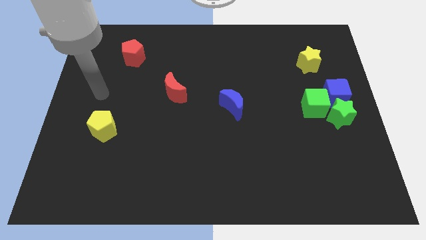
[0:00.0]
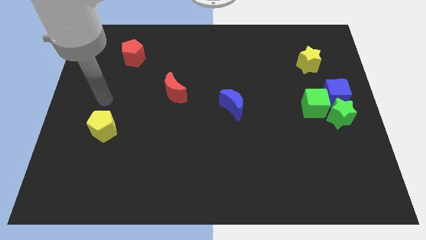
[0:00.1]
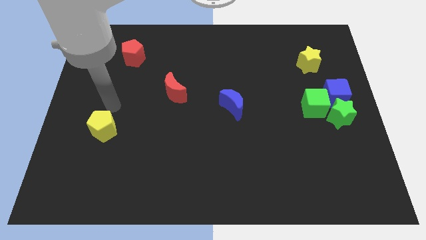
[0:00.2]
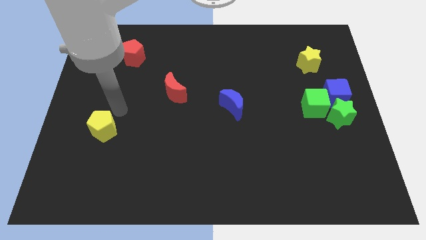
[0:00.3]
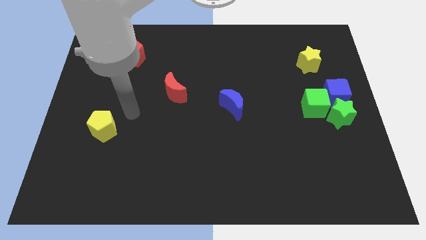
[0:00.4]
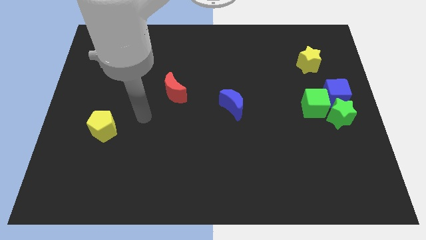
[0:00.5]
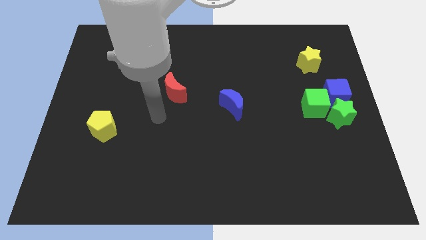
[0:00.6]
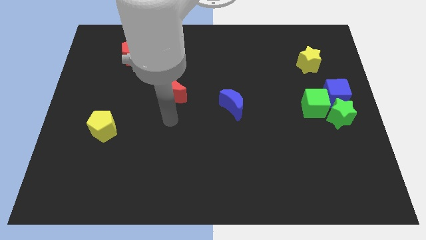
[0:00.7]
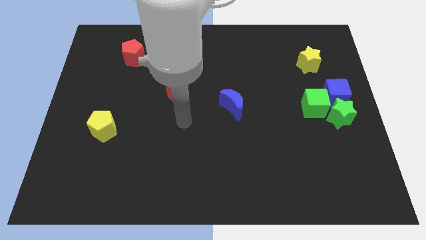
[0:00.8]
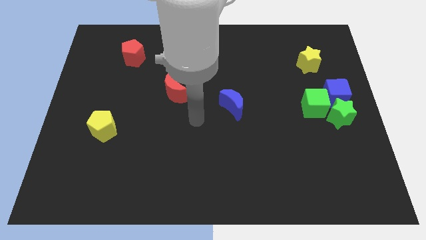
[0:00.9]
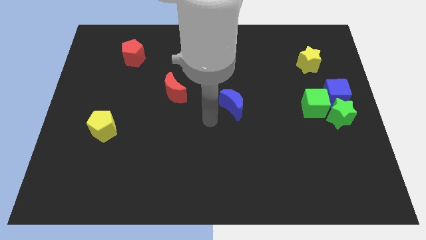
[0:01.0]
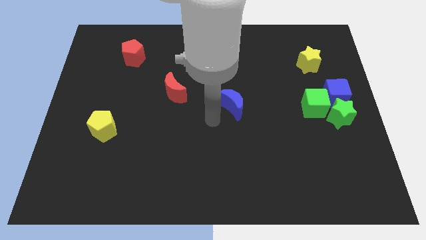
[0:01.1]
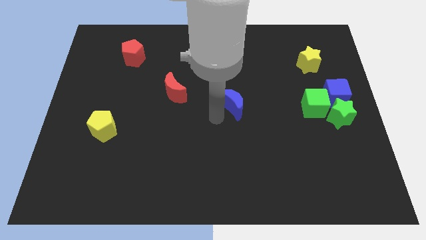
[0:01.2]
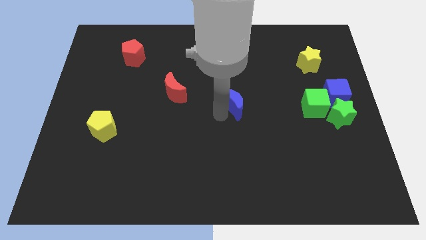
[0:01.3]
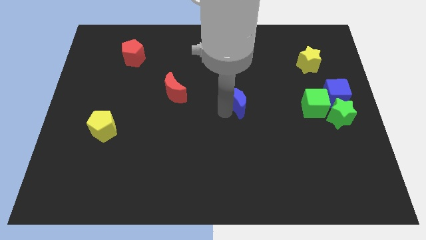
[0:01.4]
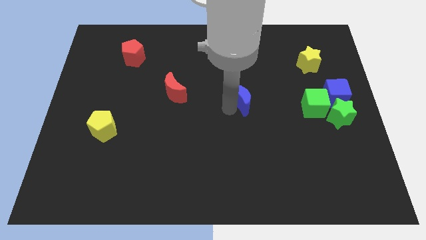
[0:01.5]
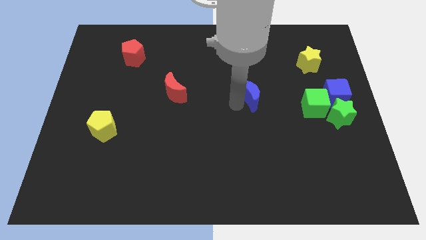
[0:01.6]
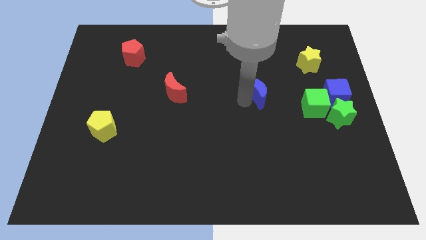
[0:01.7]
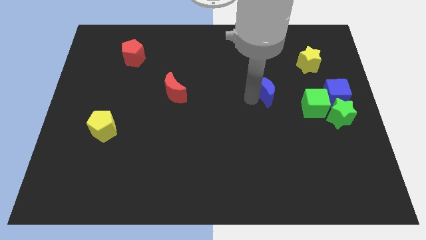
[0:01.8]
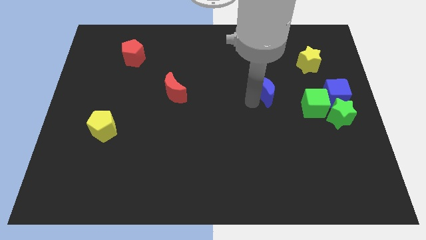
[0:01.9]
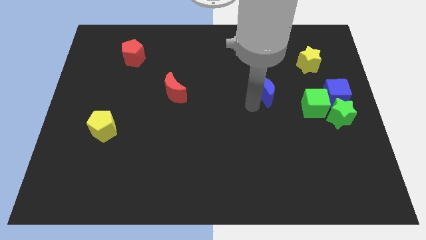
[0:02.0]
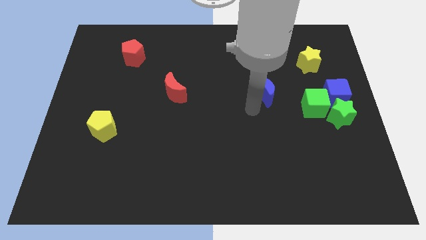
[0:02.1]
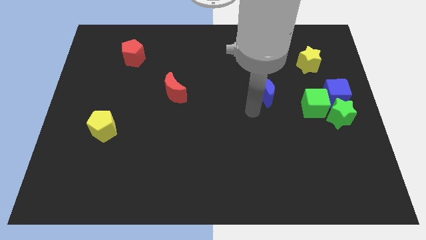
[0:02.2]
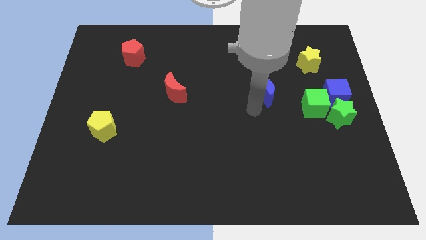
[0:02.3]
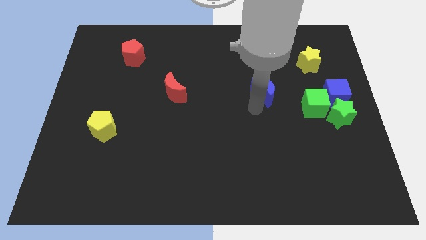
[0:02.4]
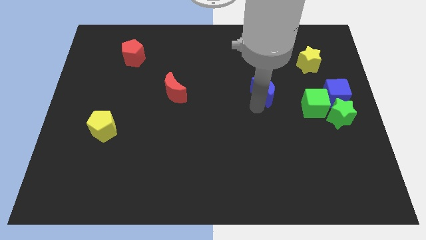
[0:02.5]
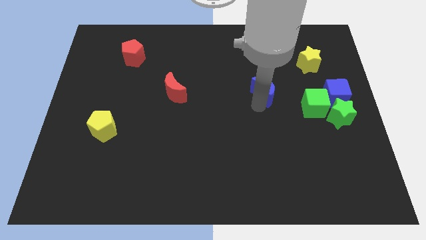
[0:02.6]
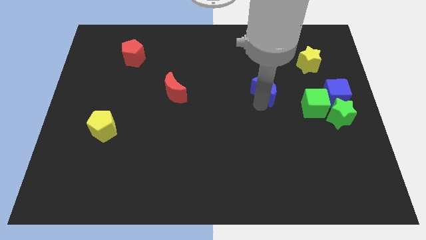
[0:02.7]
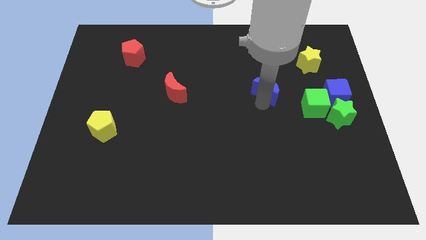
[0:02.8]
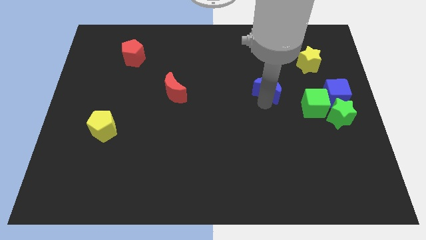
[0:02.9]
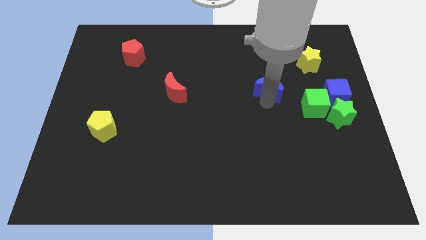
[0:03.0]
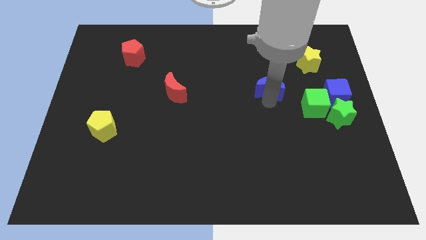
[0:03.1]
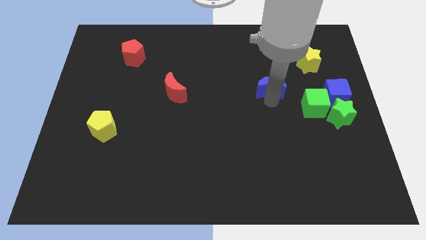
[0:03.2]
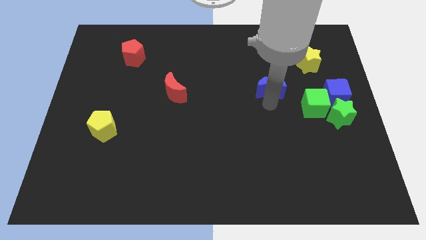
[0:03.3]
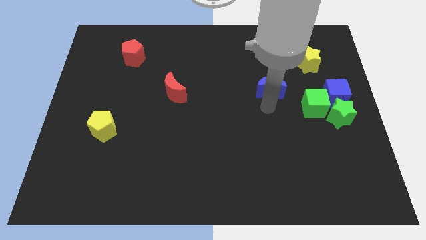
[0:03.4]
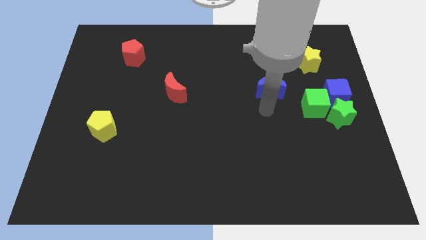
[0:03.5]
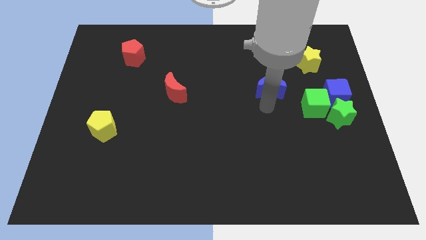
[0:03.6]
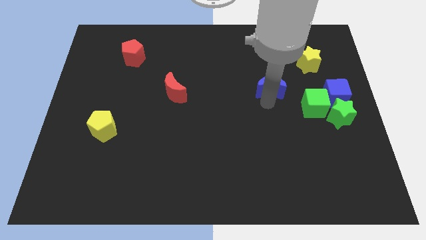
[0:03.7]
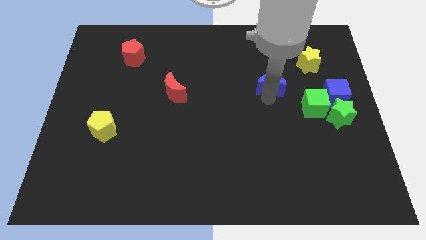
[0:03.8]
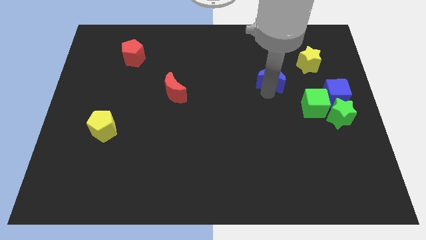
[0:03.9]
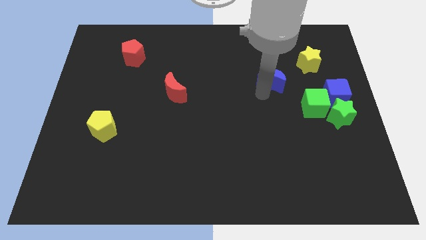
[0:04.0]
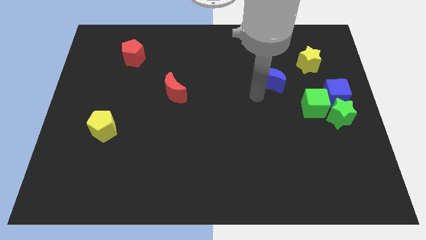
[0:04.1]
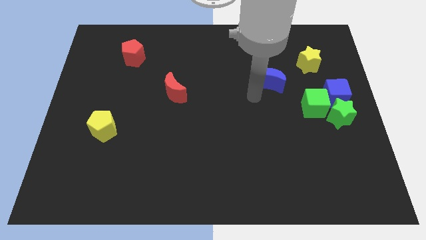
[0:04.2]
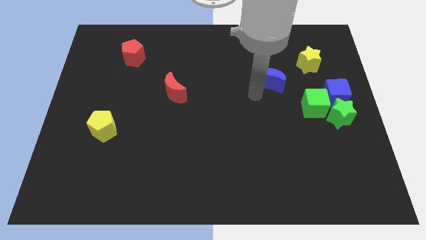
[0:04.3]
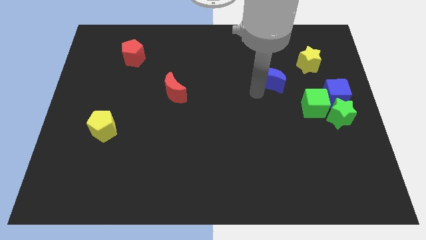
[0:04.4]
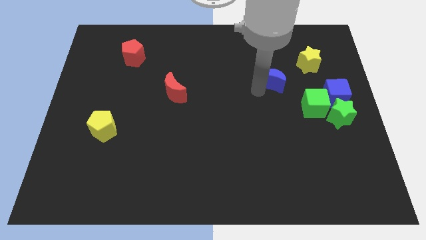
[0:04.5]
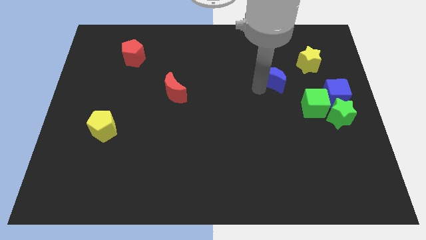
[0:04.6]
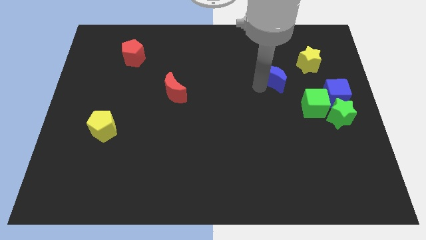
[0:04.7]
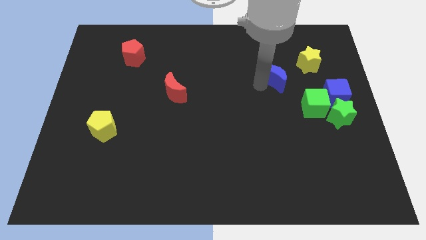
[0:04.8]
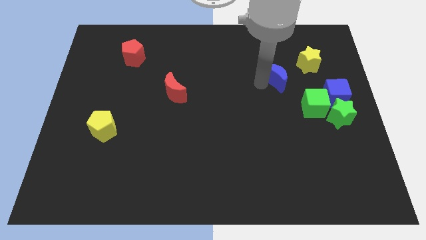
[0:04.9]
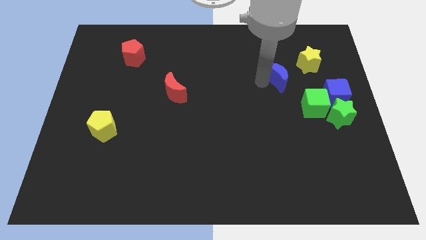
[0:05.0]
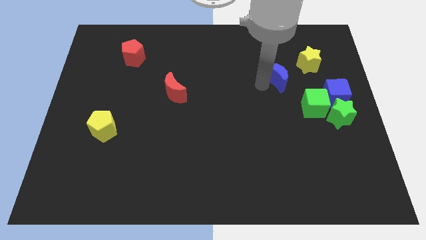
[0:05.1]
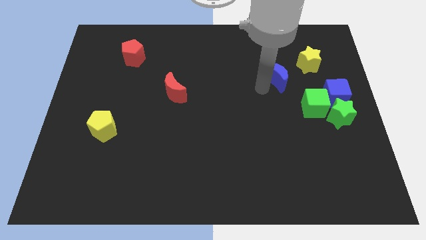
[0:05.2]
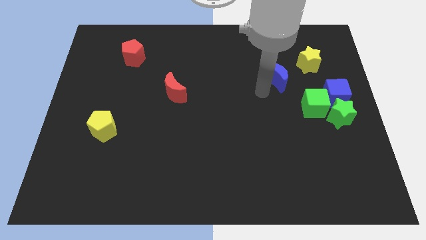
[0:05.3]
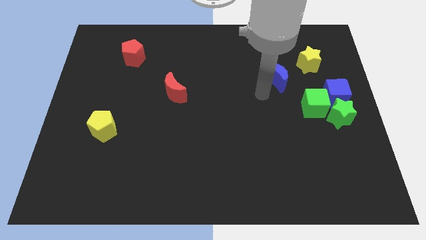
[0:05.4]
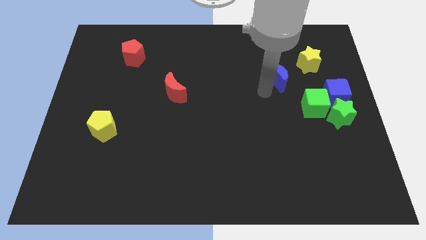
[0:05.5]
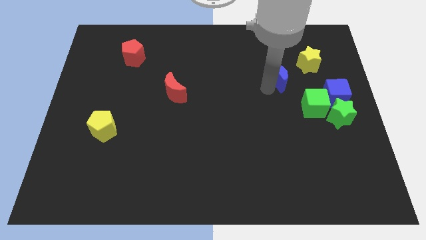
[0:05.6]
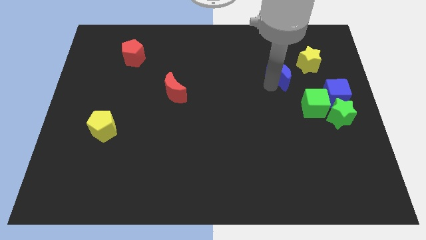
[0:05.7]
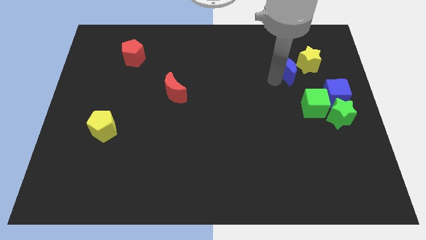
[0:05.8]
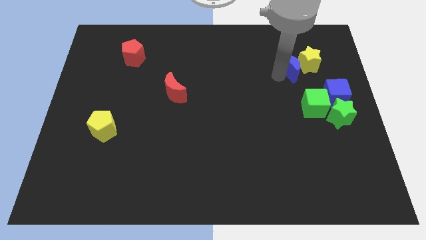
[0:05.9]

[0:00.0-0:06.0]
put the blue moon to the yellow star

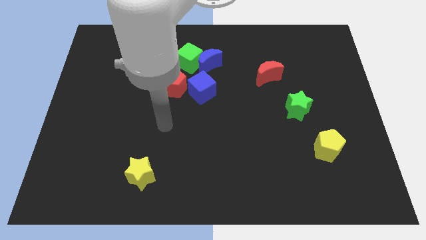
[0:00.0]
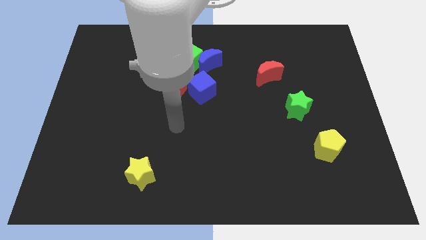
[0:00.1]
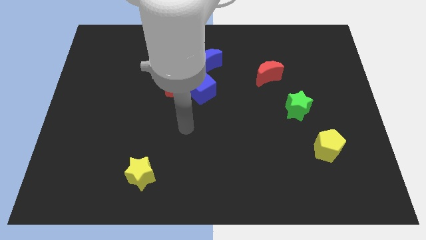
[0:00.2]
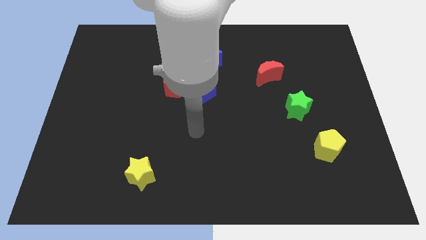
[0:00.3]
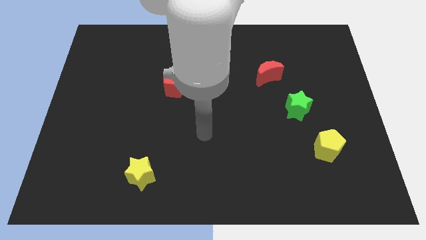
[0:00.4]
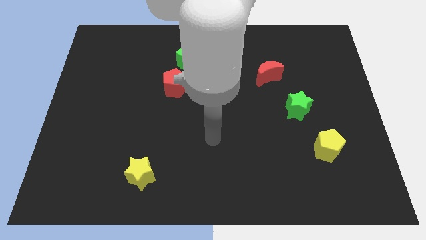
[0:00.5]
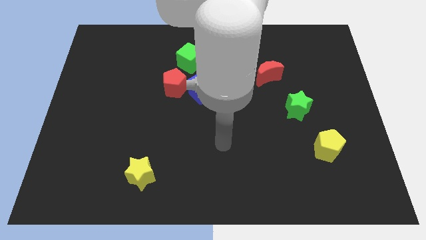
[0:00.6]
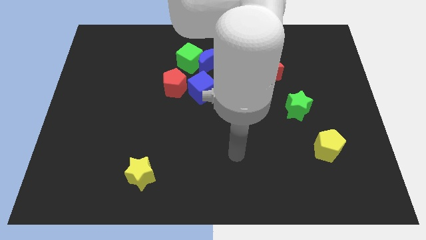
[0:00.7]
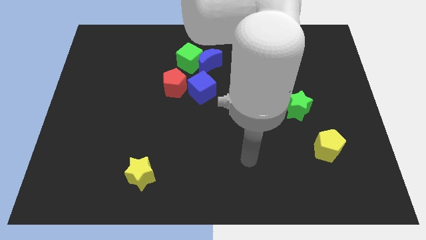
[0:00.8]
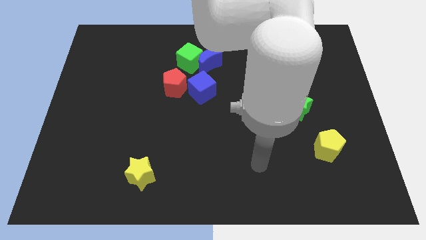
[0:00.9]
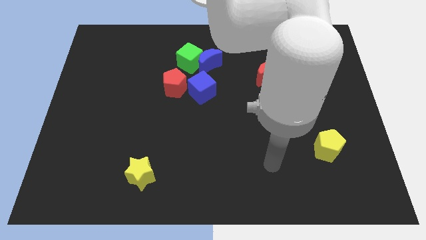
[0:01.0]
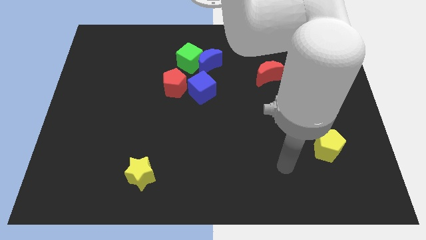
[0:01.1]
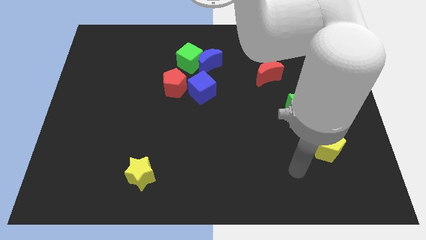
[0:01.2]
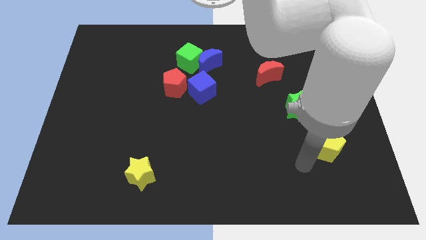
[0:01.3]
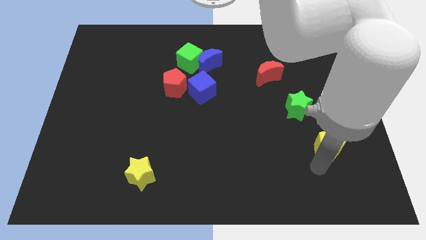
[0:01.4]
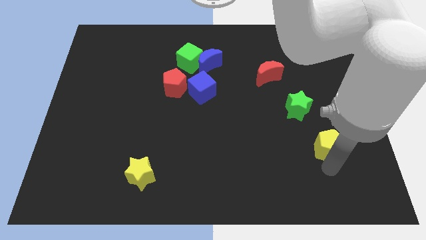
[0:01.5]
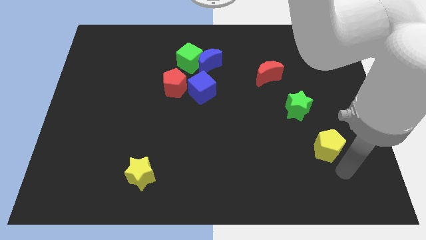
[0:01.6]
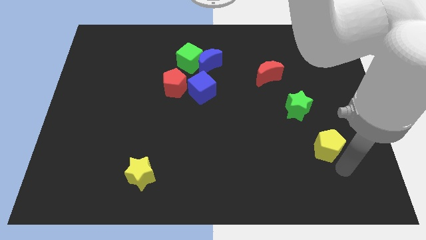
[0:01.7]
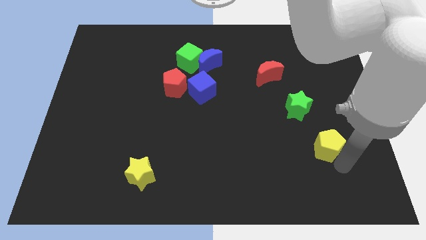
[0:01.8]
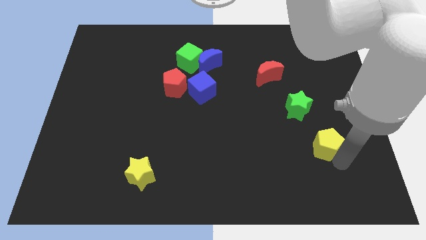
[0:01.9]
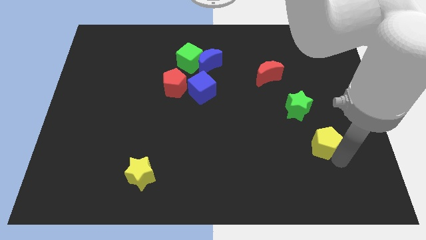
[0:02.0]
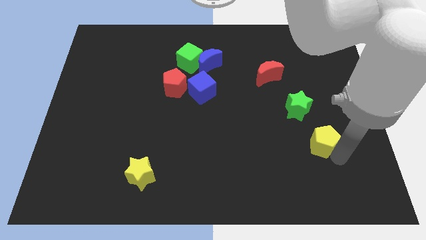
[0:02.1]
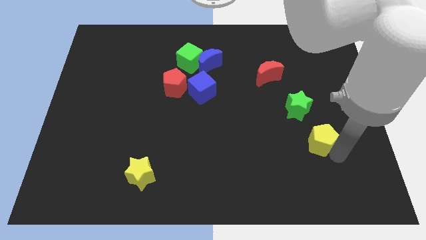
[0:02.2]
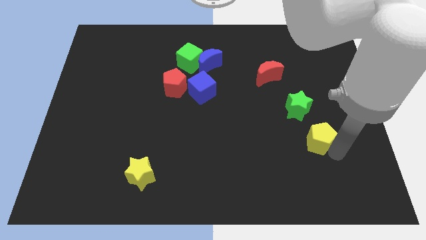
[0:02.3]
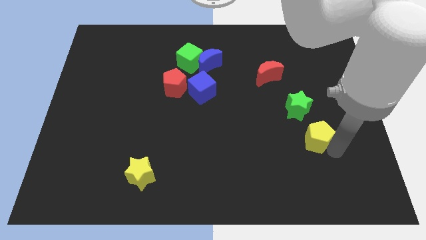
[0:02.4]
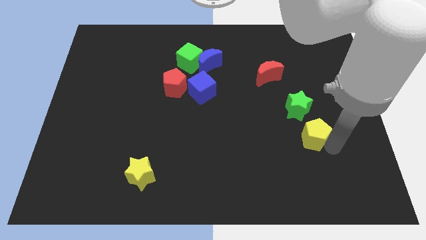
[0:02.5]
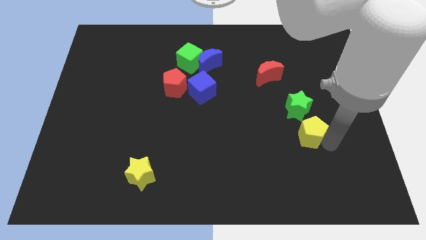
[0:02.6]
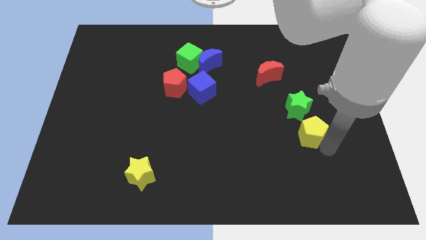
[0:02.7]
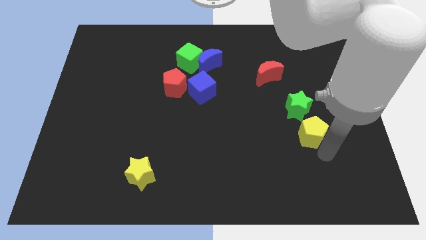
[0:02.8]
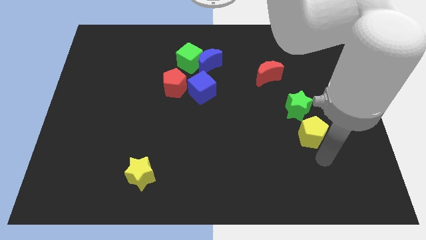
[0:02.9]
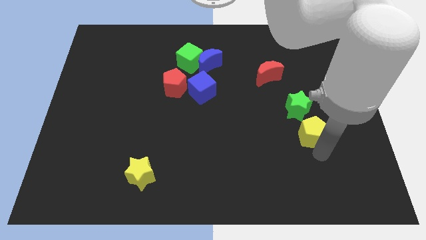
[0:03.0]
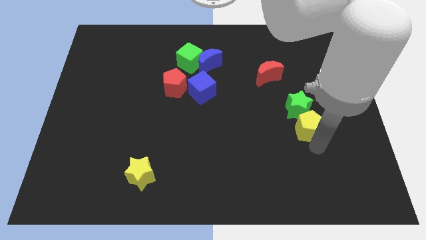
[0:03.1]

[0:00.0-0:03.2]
move the yellow pentagon close to the green star
